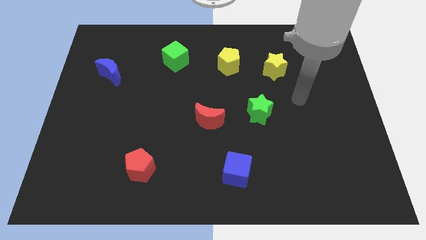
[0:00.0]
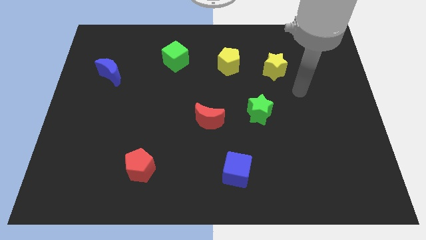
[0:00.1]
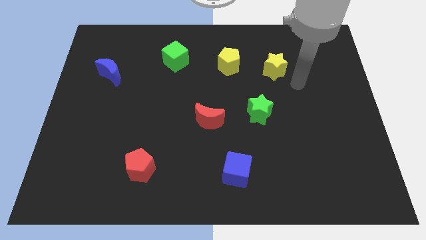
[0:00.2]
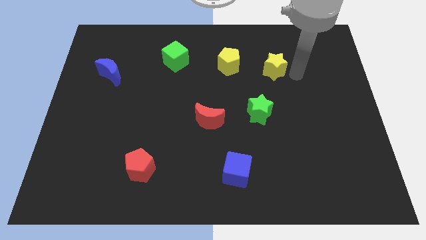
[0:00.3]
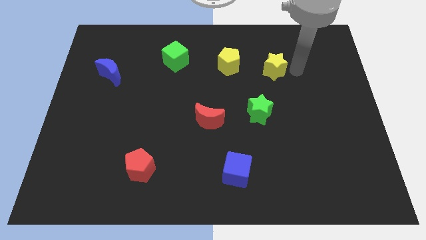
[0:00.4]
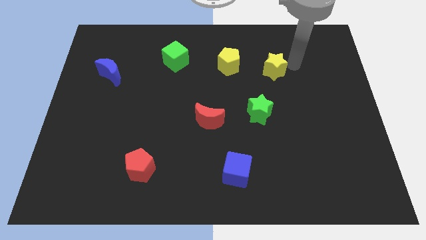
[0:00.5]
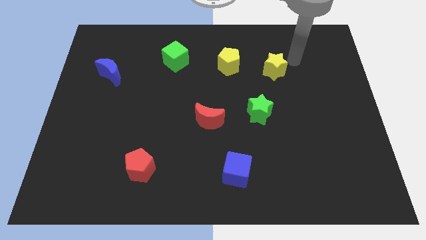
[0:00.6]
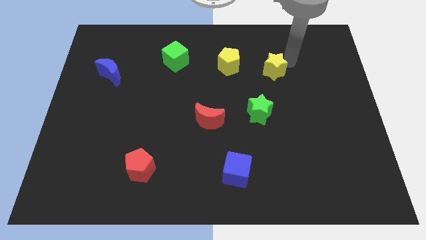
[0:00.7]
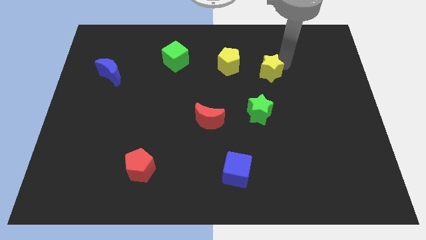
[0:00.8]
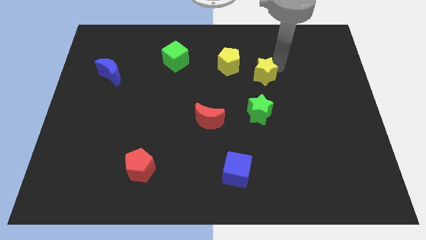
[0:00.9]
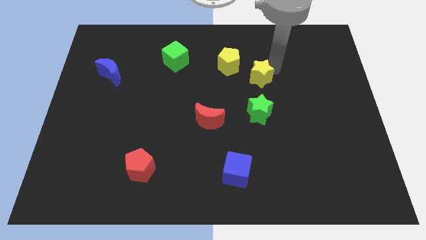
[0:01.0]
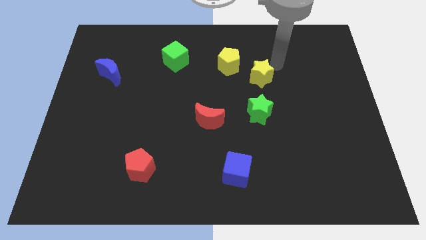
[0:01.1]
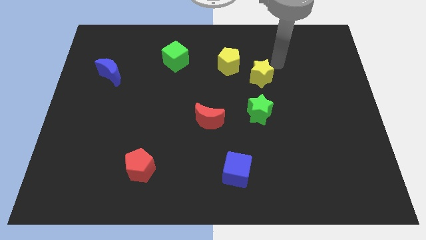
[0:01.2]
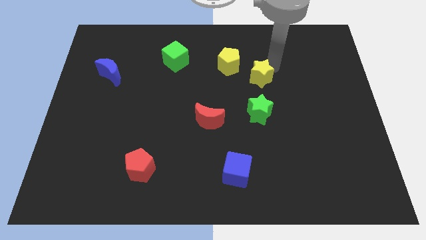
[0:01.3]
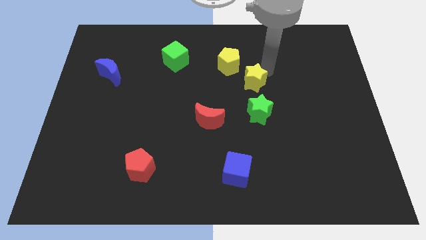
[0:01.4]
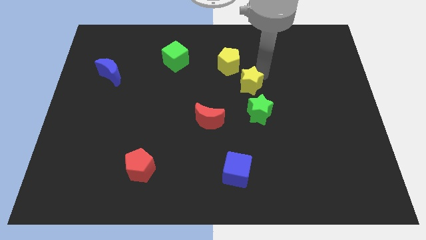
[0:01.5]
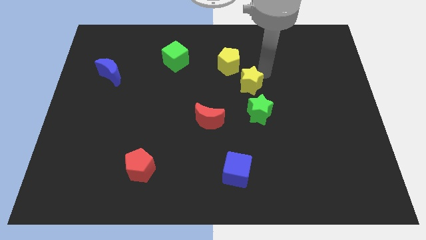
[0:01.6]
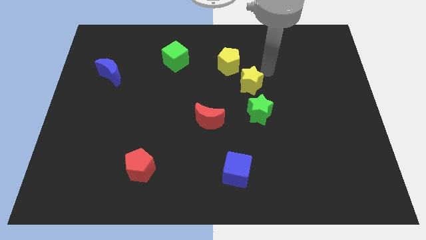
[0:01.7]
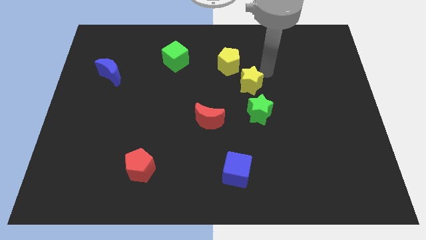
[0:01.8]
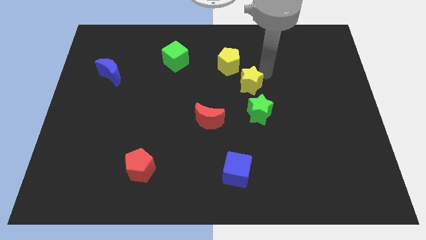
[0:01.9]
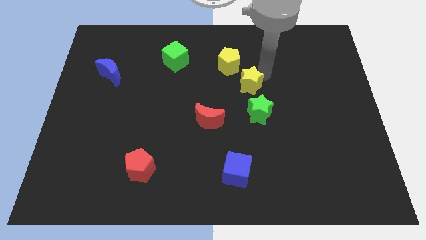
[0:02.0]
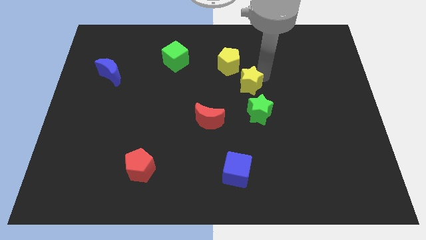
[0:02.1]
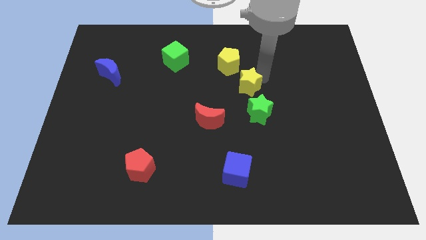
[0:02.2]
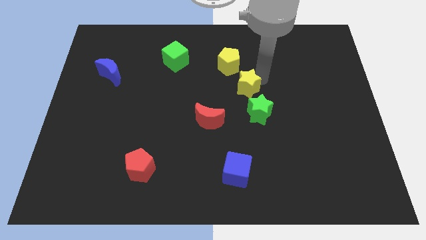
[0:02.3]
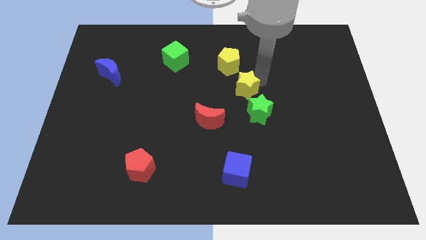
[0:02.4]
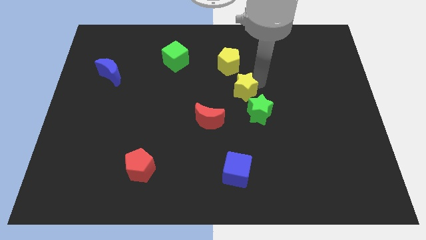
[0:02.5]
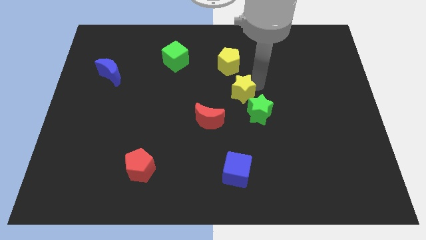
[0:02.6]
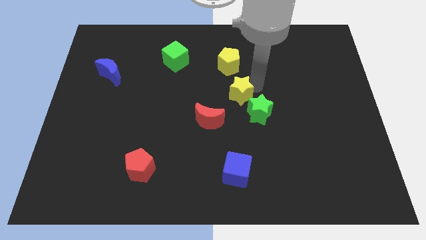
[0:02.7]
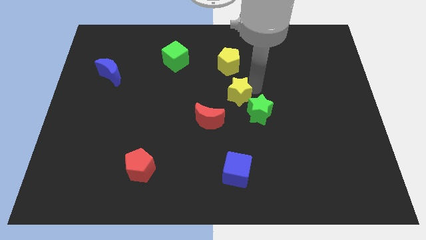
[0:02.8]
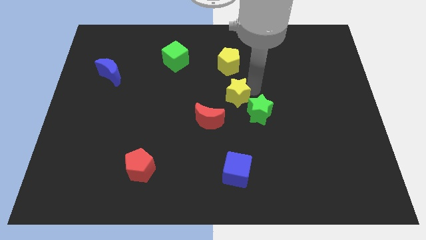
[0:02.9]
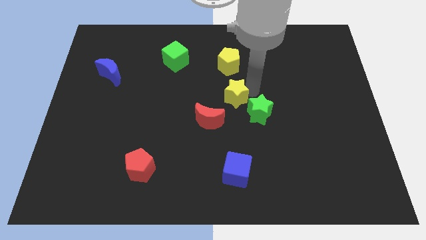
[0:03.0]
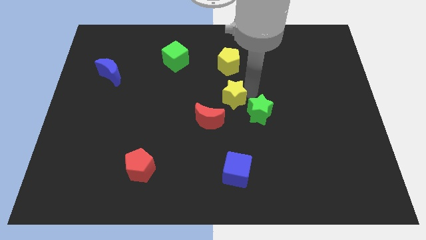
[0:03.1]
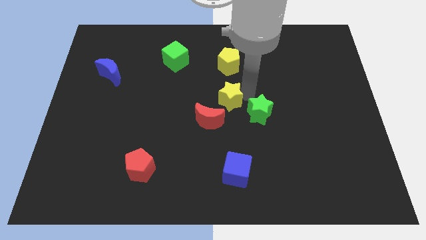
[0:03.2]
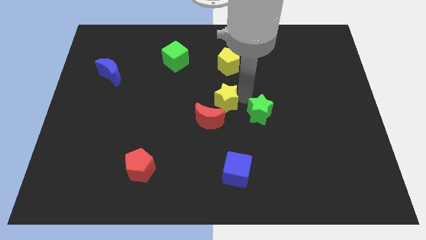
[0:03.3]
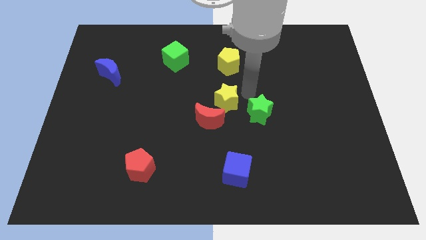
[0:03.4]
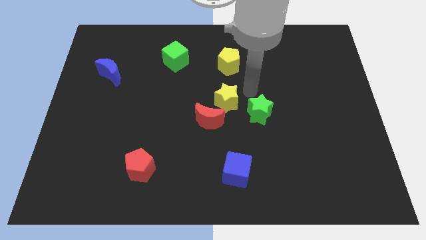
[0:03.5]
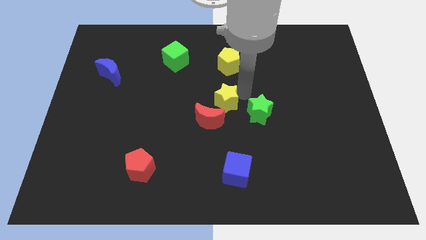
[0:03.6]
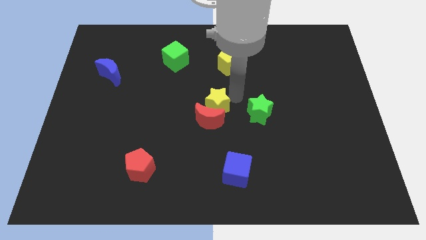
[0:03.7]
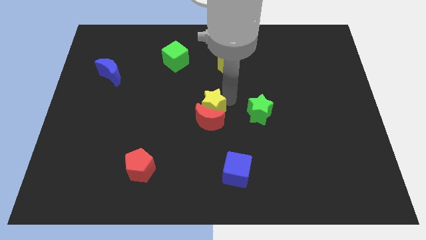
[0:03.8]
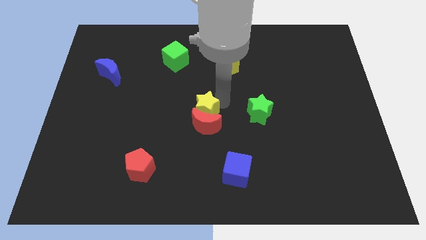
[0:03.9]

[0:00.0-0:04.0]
move the yellow star down and to the left diagonally

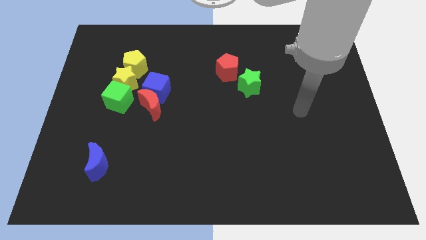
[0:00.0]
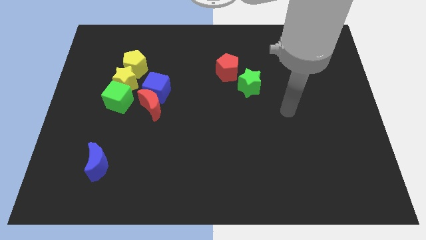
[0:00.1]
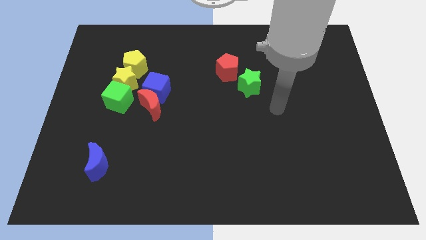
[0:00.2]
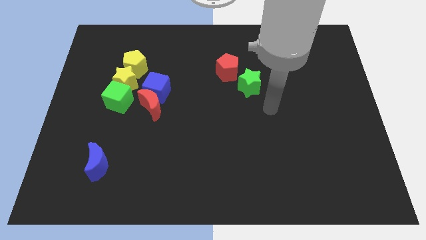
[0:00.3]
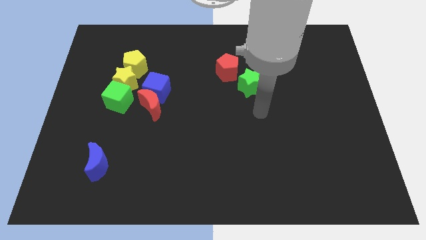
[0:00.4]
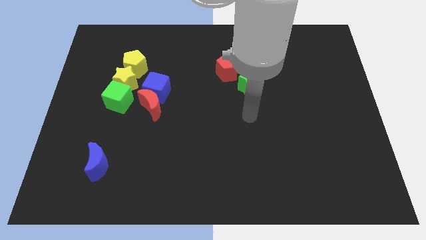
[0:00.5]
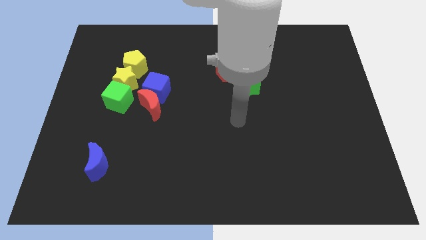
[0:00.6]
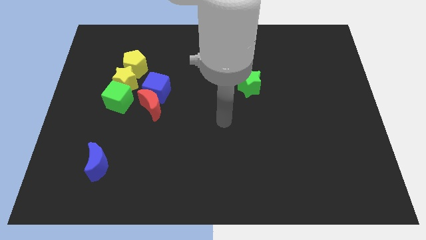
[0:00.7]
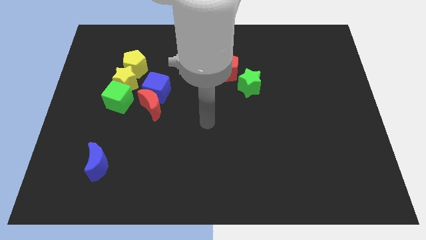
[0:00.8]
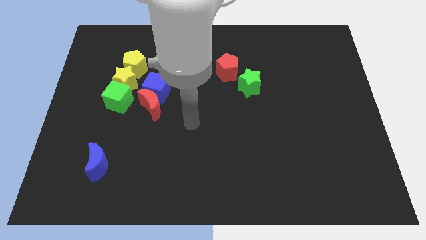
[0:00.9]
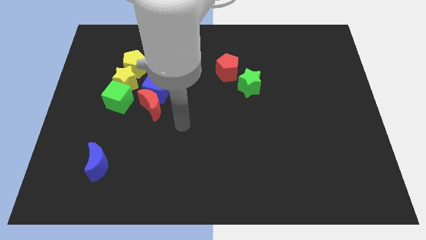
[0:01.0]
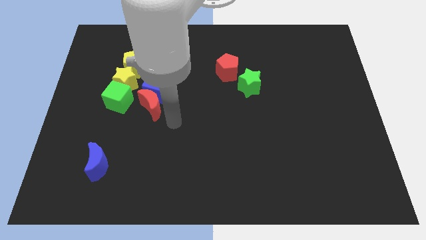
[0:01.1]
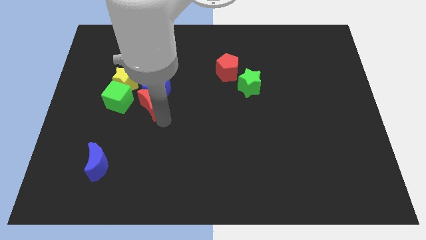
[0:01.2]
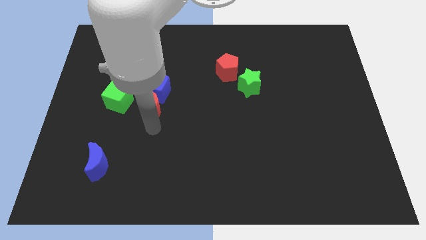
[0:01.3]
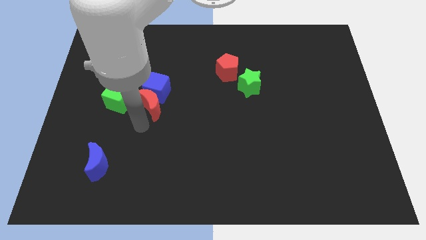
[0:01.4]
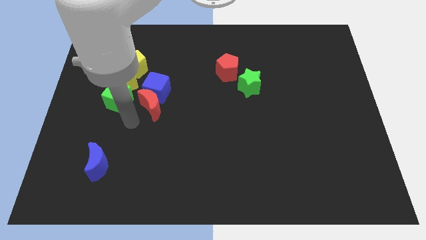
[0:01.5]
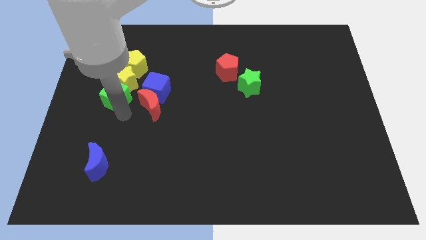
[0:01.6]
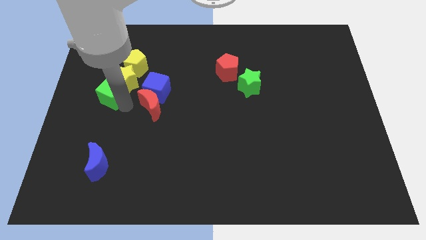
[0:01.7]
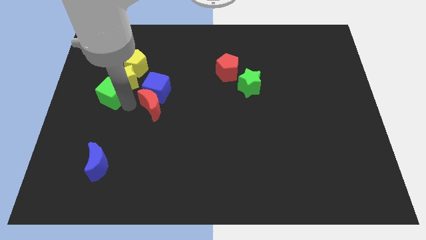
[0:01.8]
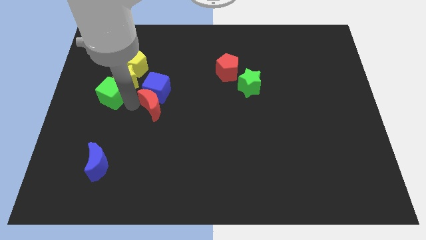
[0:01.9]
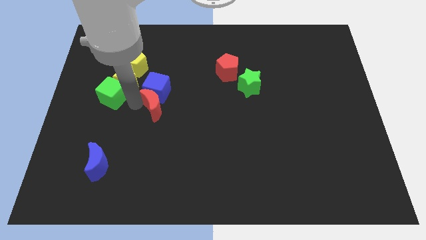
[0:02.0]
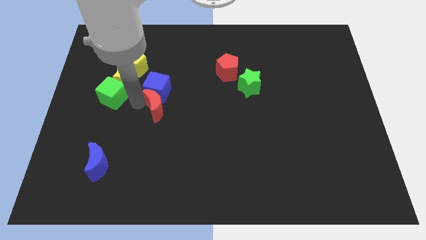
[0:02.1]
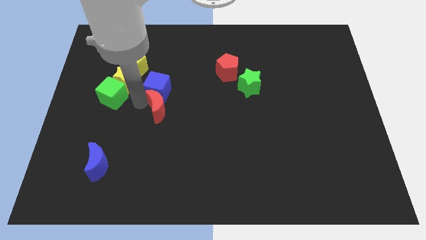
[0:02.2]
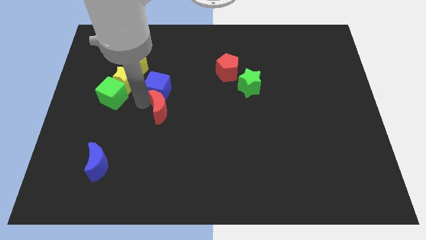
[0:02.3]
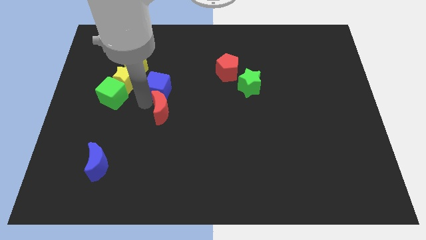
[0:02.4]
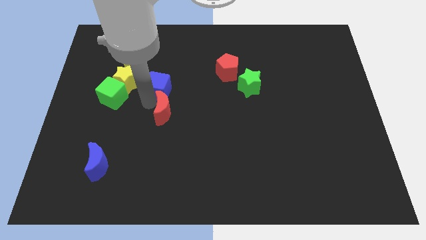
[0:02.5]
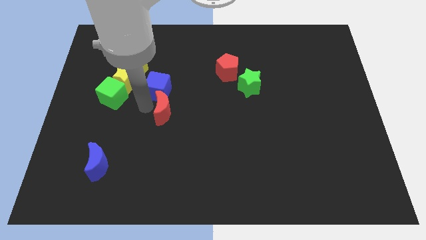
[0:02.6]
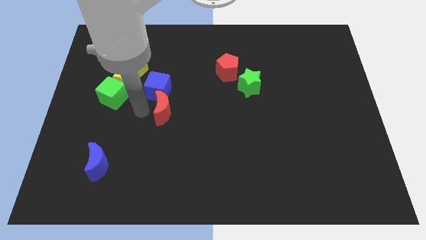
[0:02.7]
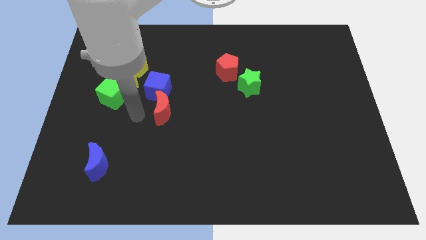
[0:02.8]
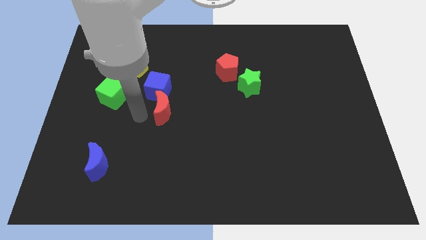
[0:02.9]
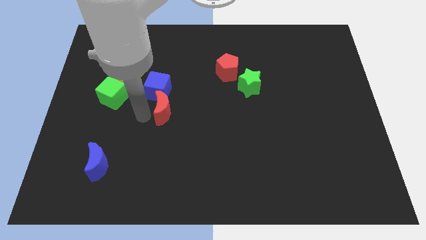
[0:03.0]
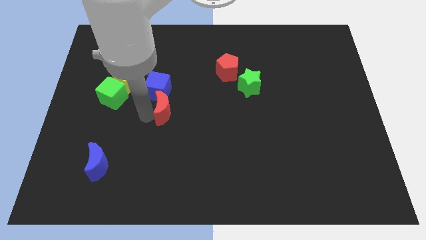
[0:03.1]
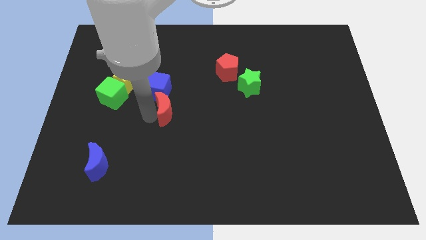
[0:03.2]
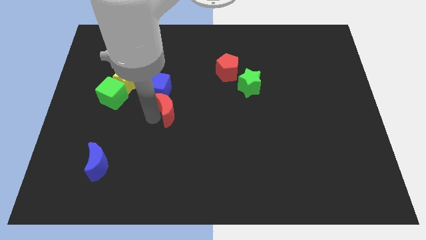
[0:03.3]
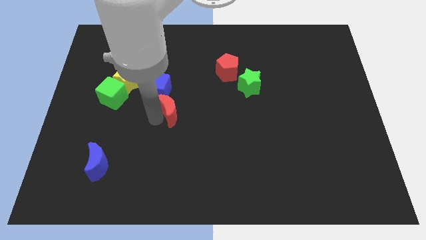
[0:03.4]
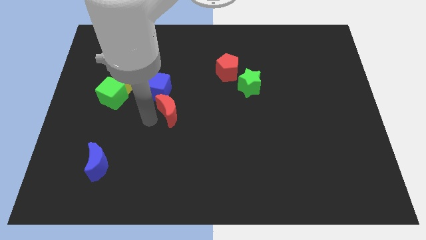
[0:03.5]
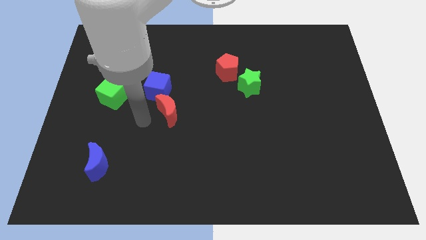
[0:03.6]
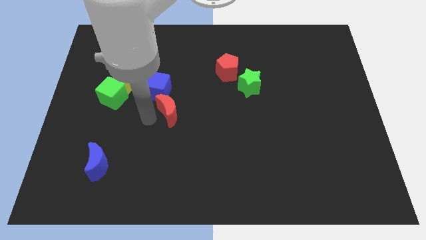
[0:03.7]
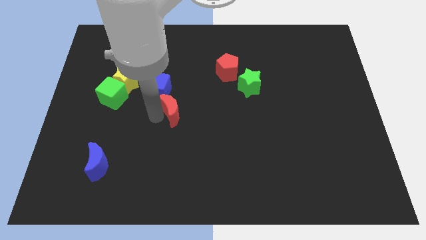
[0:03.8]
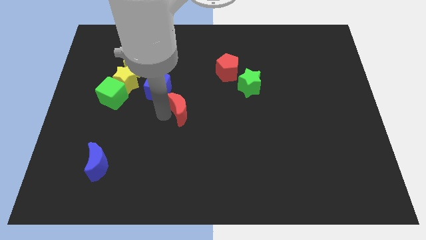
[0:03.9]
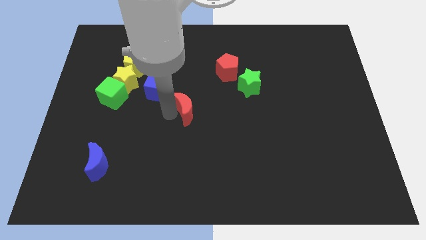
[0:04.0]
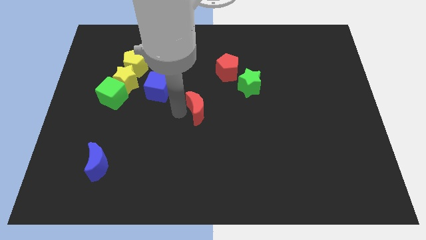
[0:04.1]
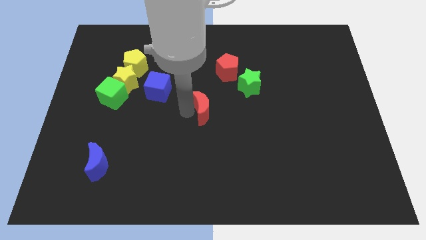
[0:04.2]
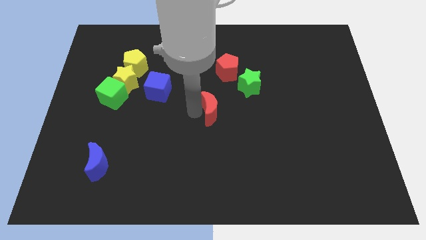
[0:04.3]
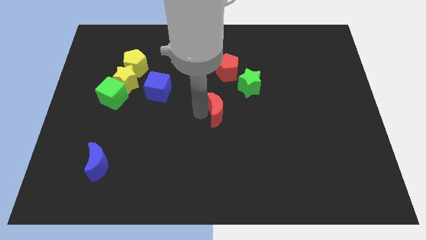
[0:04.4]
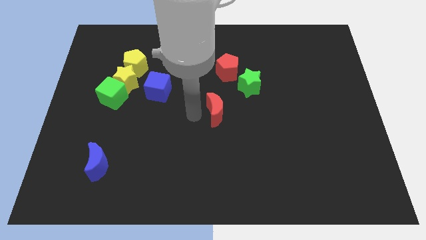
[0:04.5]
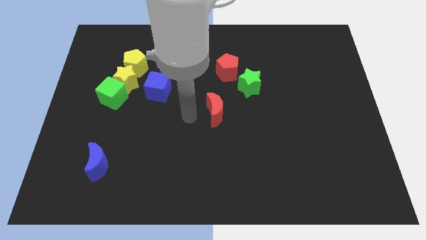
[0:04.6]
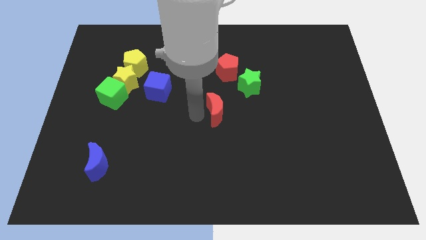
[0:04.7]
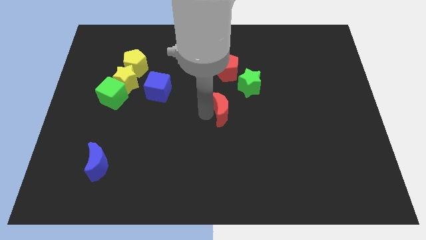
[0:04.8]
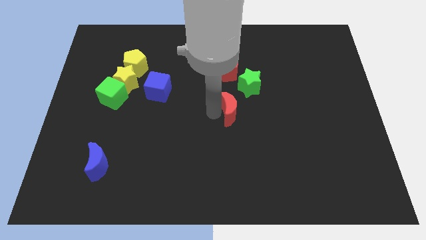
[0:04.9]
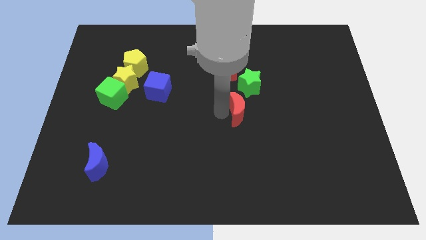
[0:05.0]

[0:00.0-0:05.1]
push the red moon to the right
